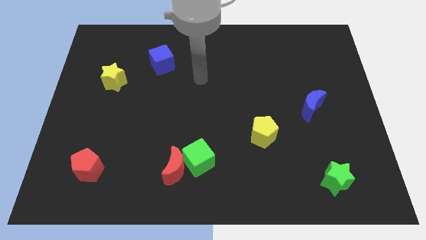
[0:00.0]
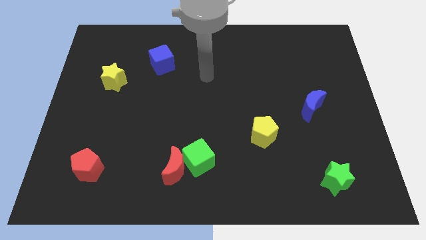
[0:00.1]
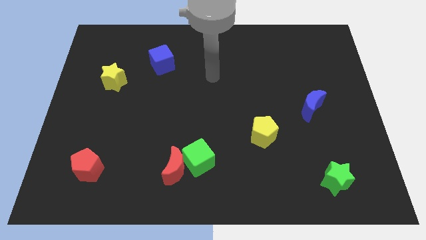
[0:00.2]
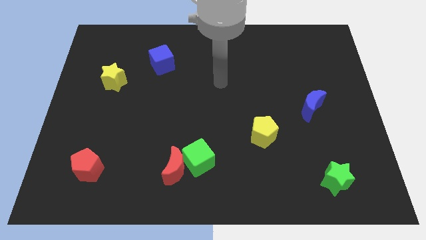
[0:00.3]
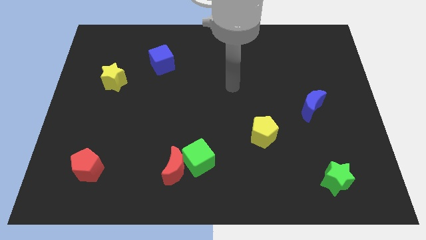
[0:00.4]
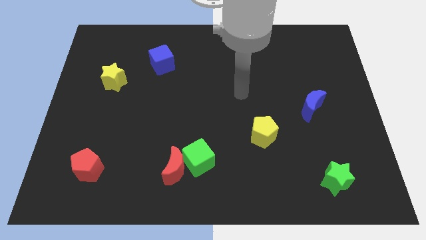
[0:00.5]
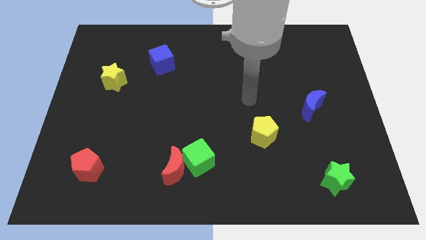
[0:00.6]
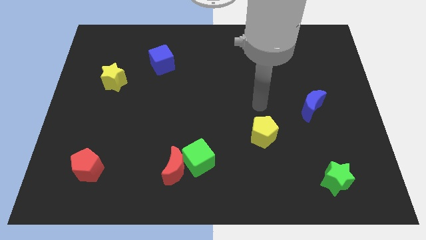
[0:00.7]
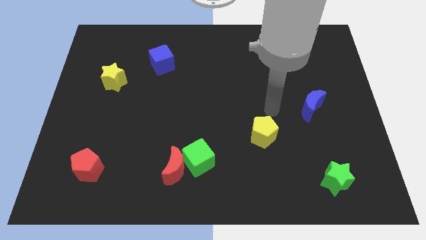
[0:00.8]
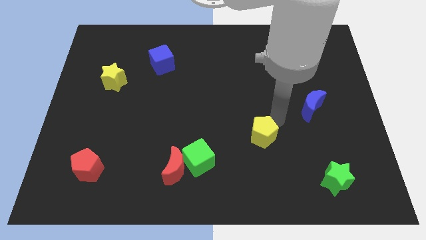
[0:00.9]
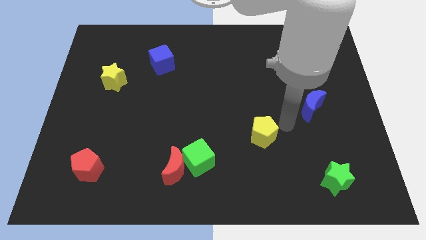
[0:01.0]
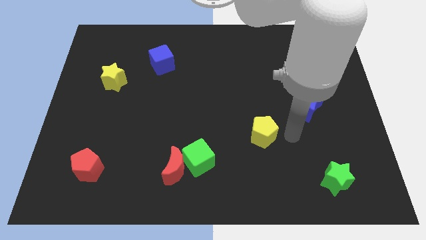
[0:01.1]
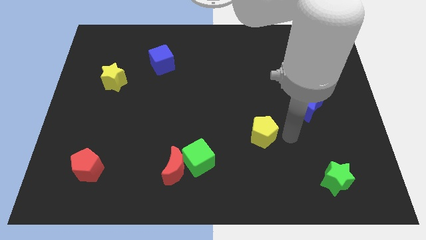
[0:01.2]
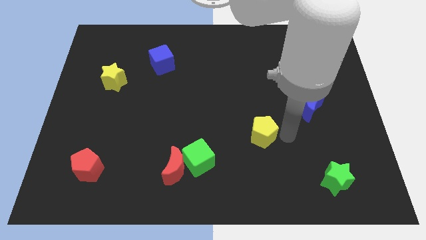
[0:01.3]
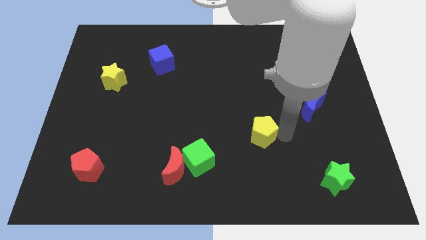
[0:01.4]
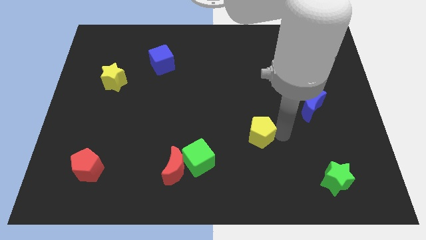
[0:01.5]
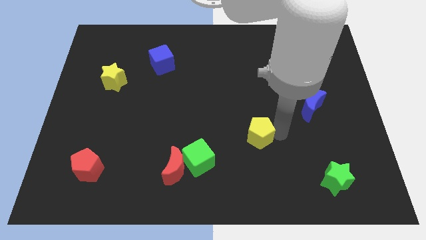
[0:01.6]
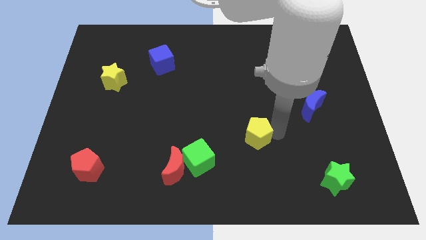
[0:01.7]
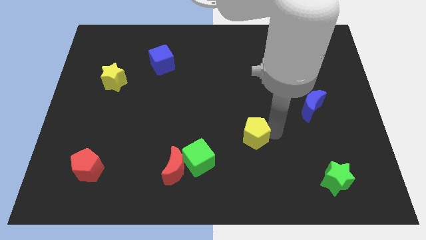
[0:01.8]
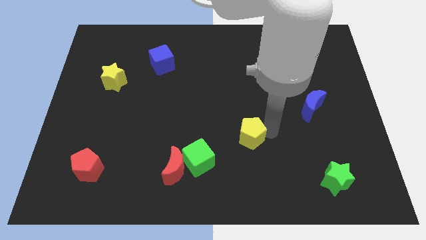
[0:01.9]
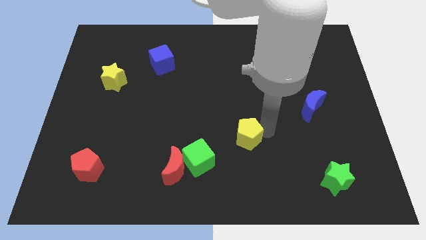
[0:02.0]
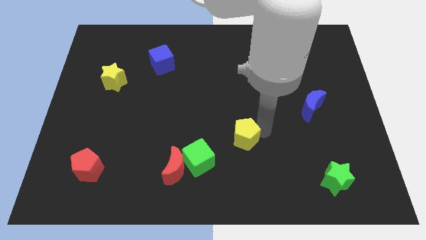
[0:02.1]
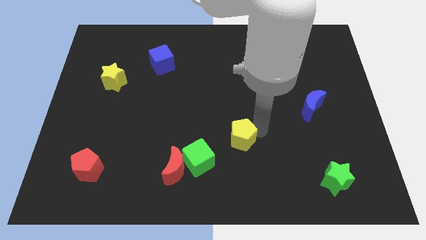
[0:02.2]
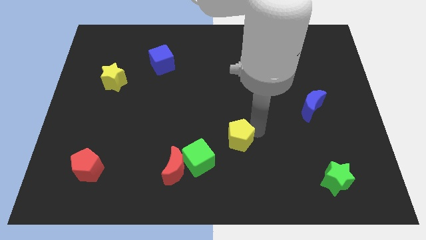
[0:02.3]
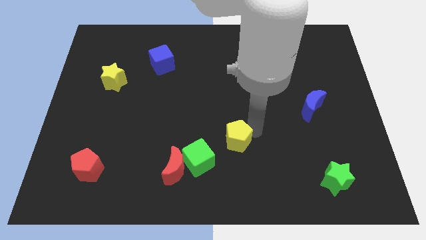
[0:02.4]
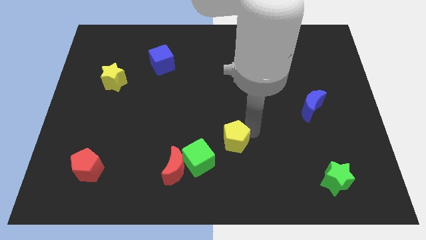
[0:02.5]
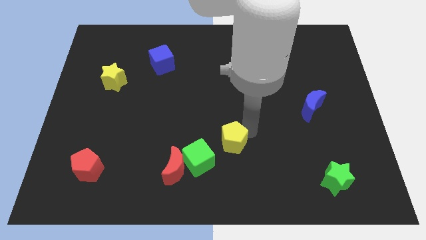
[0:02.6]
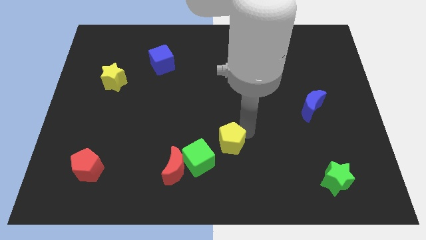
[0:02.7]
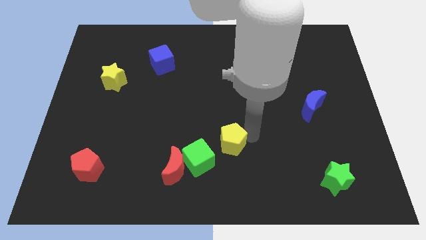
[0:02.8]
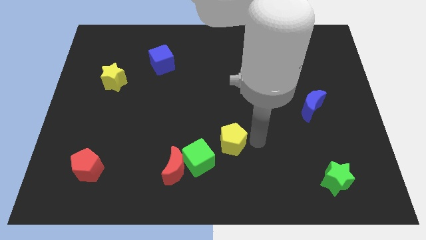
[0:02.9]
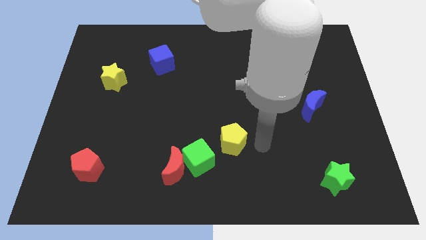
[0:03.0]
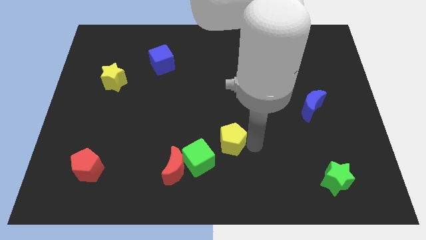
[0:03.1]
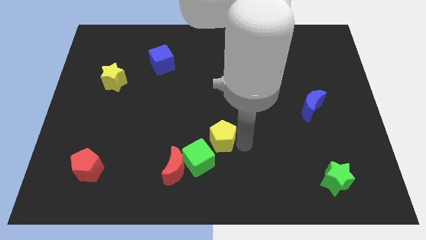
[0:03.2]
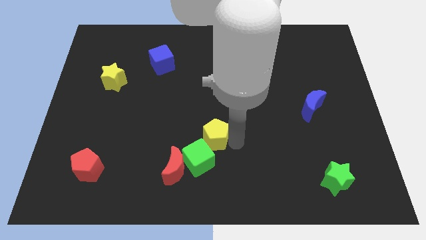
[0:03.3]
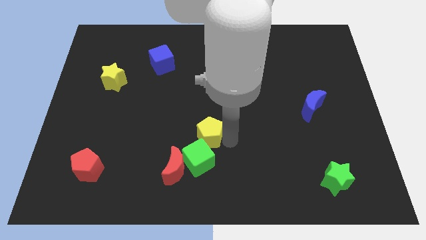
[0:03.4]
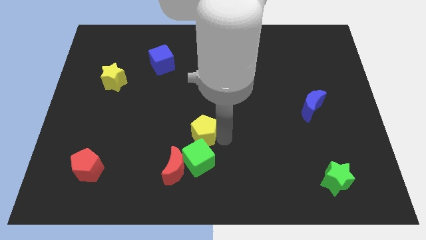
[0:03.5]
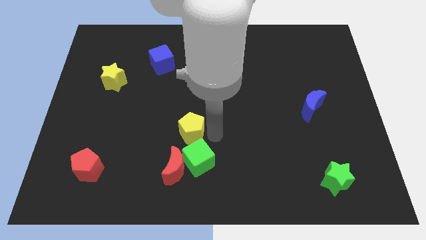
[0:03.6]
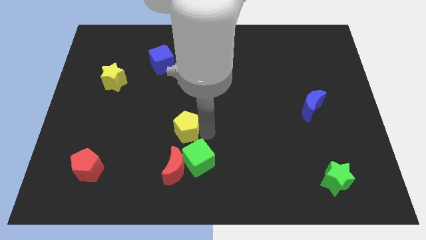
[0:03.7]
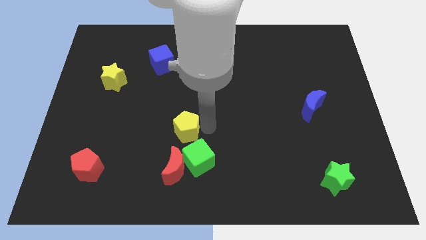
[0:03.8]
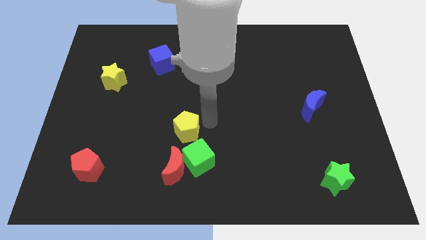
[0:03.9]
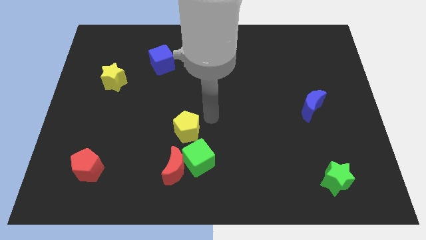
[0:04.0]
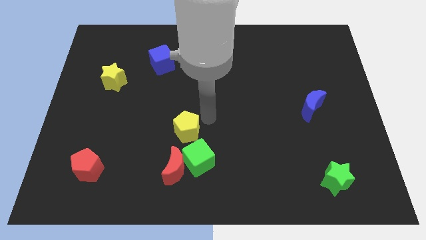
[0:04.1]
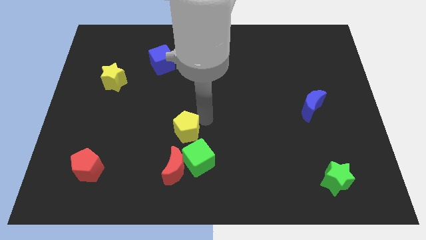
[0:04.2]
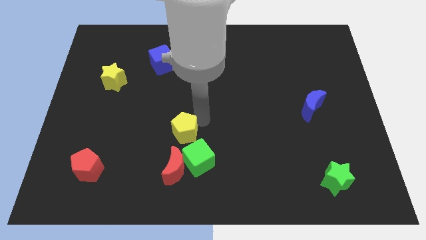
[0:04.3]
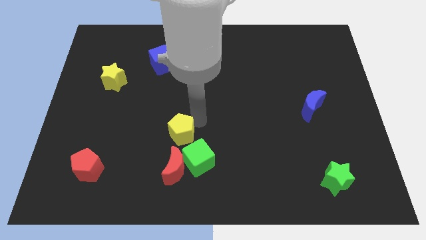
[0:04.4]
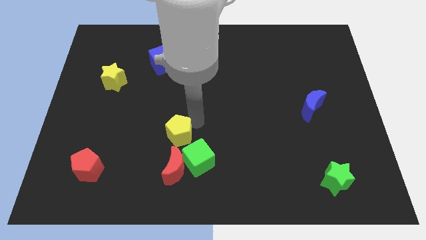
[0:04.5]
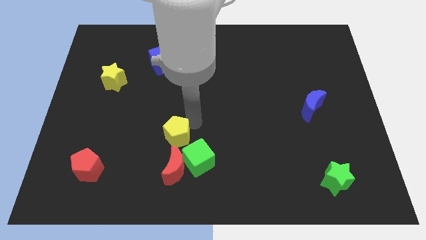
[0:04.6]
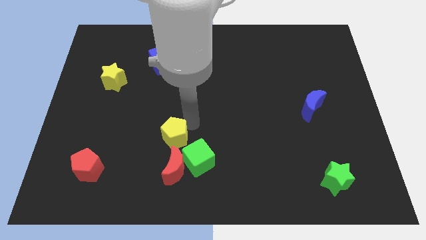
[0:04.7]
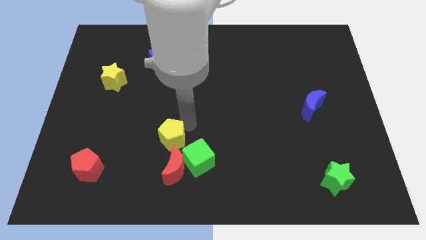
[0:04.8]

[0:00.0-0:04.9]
slide the yellow pentagon to the left

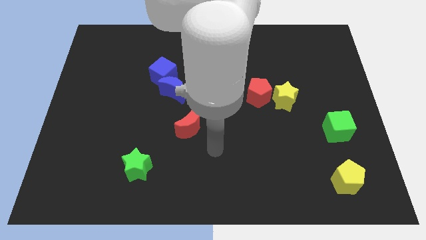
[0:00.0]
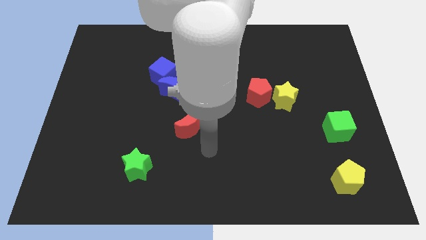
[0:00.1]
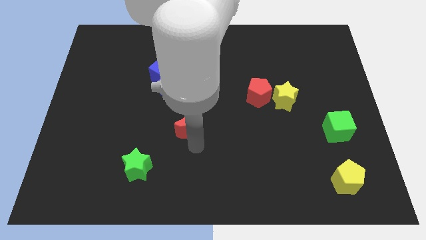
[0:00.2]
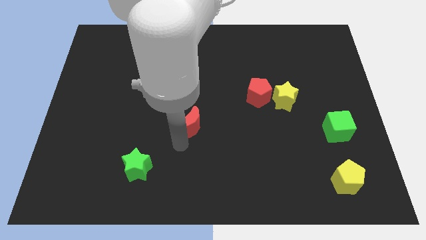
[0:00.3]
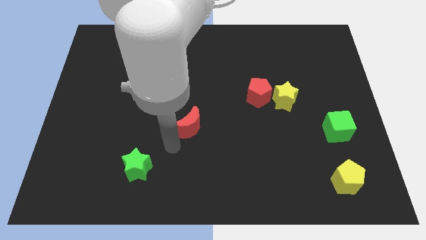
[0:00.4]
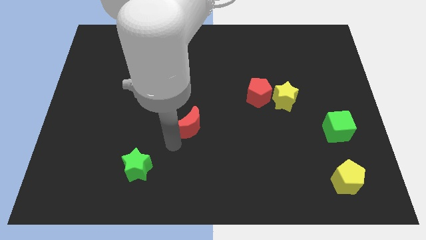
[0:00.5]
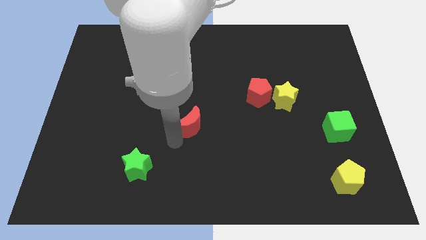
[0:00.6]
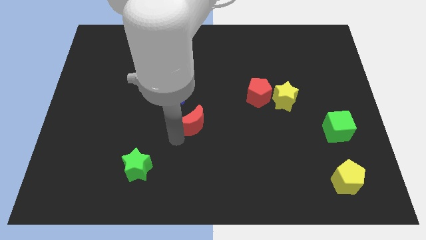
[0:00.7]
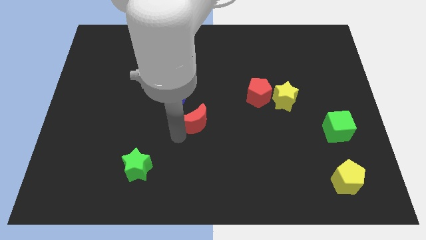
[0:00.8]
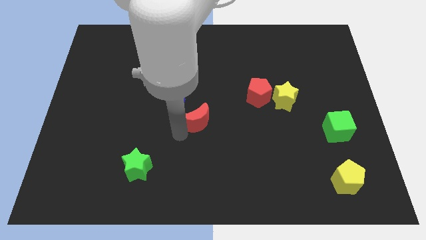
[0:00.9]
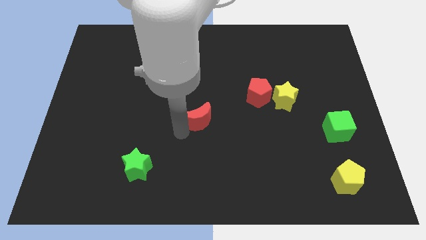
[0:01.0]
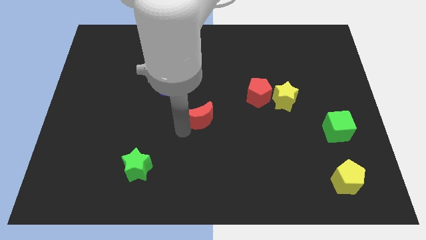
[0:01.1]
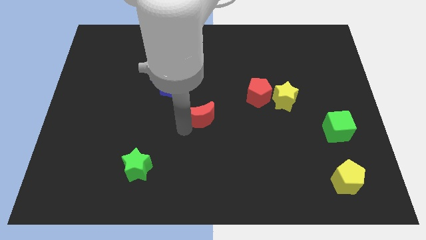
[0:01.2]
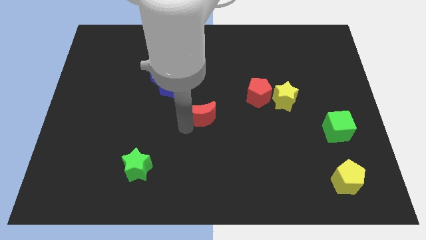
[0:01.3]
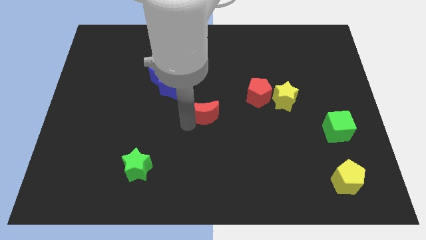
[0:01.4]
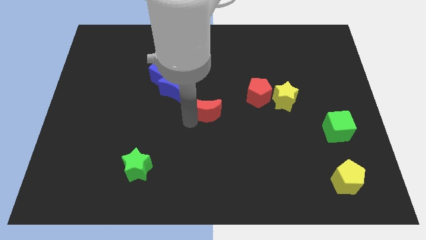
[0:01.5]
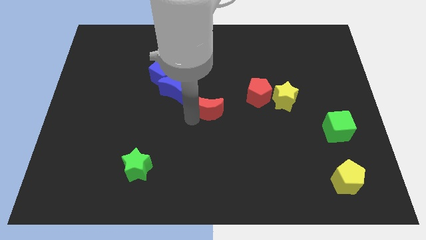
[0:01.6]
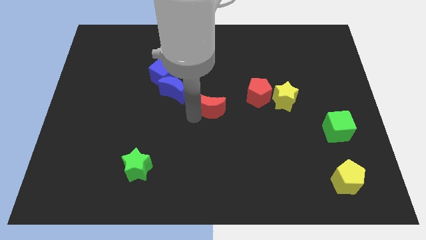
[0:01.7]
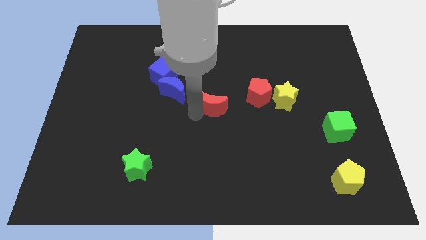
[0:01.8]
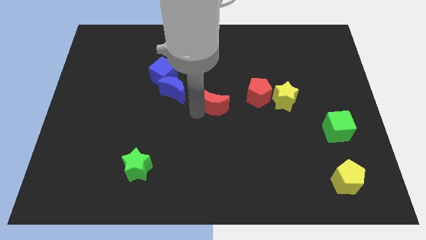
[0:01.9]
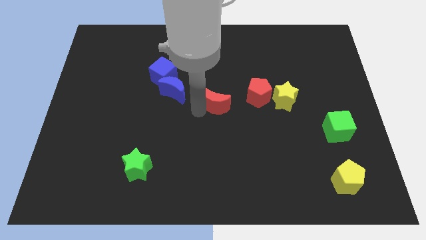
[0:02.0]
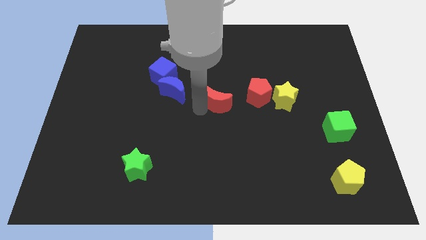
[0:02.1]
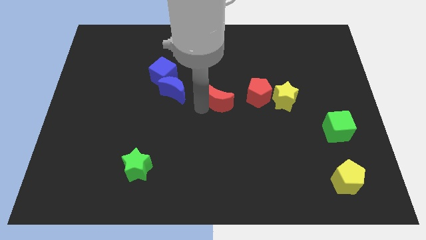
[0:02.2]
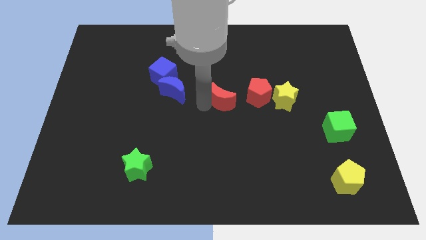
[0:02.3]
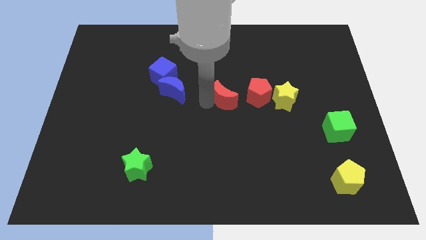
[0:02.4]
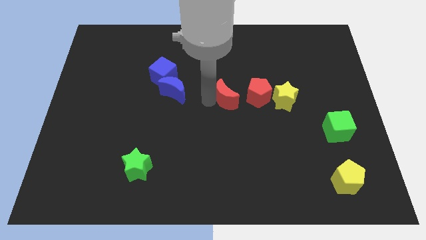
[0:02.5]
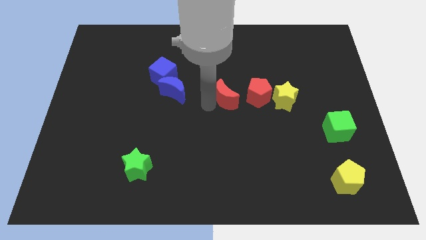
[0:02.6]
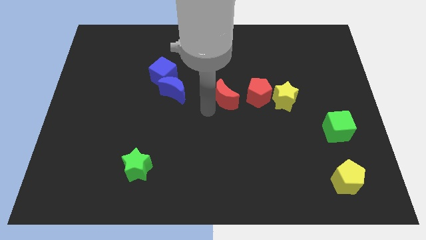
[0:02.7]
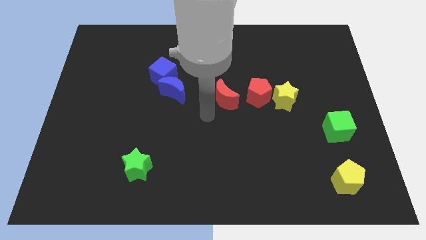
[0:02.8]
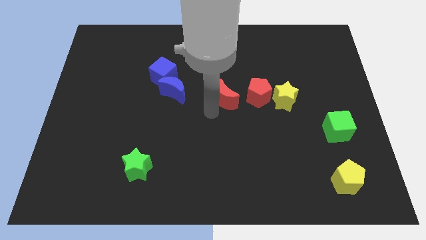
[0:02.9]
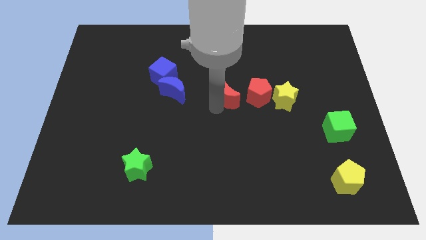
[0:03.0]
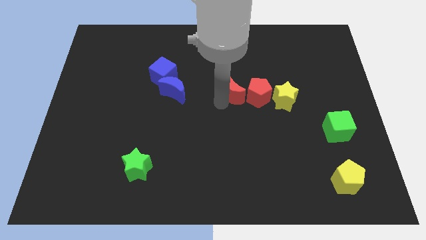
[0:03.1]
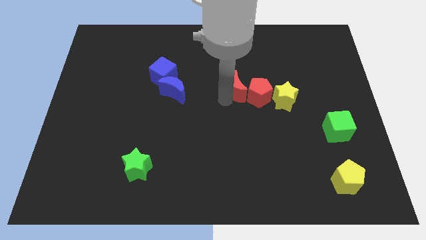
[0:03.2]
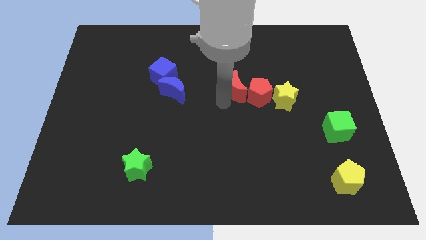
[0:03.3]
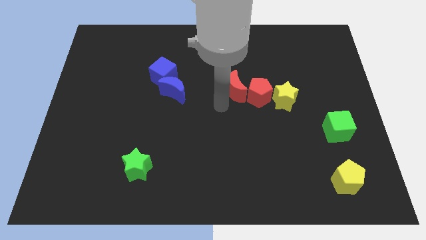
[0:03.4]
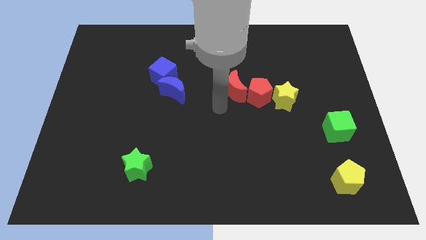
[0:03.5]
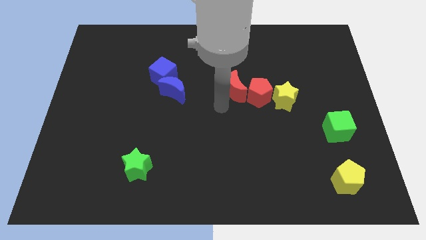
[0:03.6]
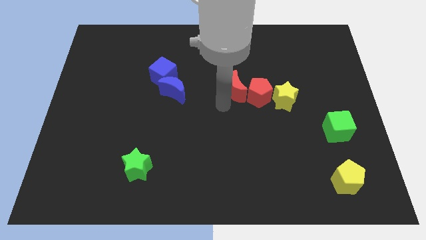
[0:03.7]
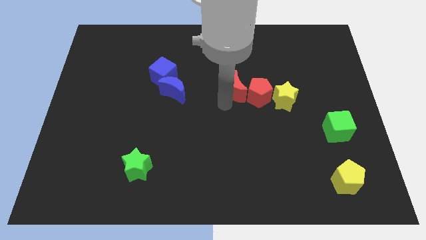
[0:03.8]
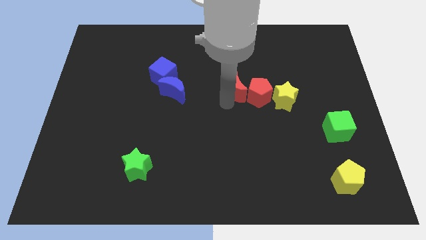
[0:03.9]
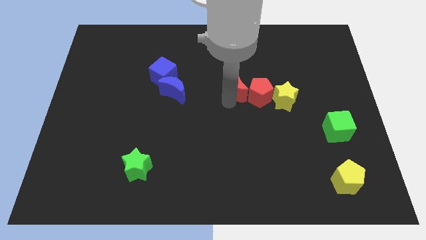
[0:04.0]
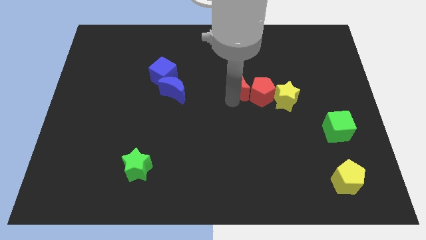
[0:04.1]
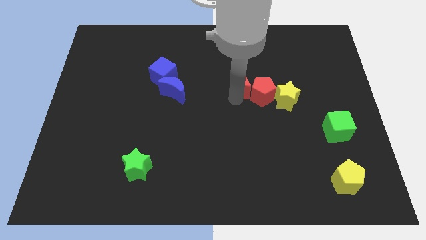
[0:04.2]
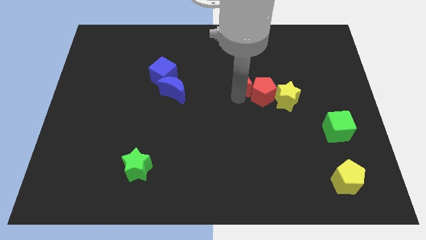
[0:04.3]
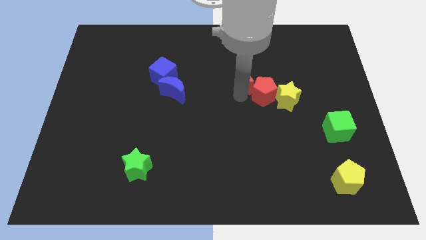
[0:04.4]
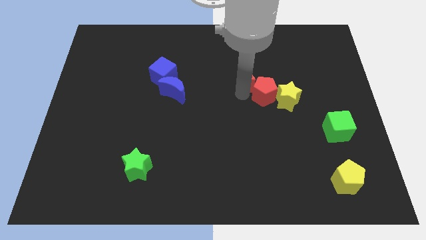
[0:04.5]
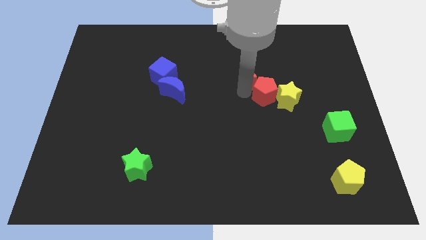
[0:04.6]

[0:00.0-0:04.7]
slide the red moon up and right
